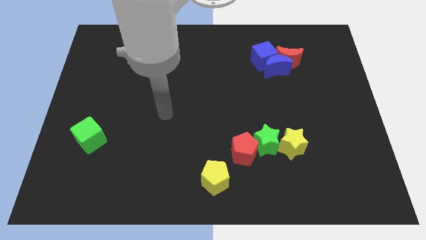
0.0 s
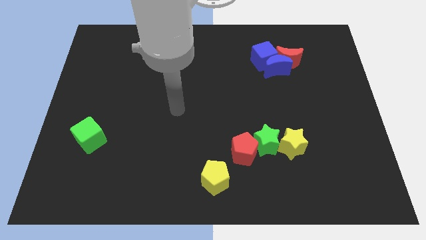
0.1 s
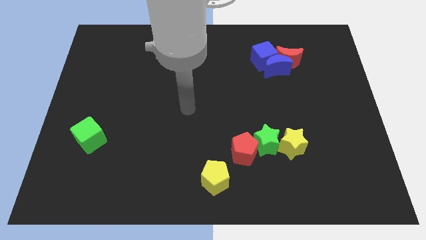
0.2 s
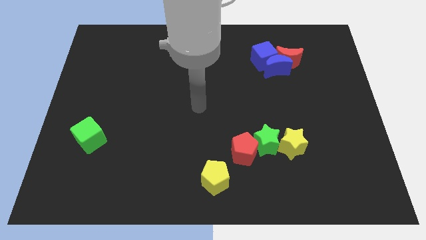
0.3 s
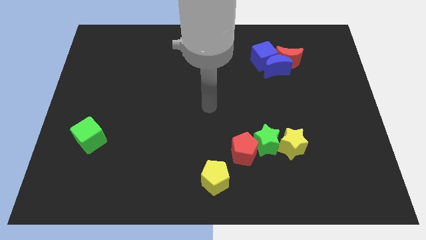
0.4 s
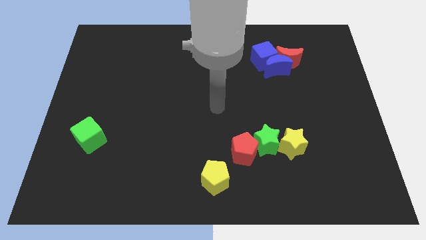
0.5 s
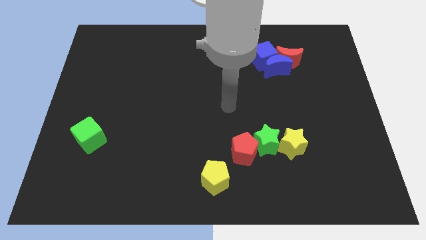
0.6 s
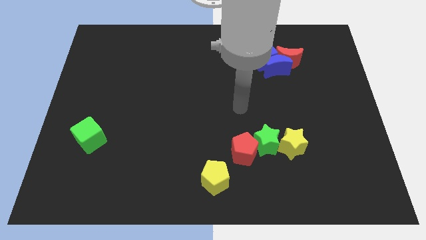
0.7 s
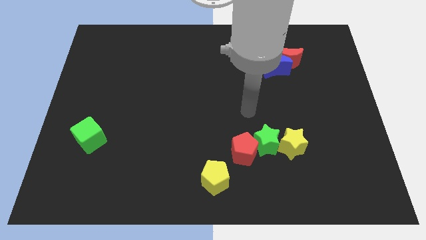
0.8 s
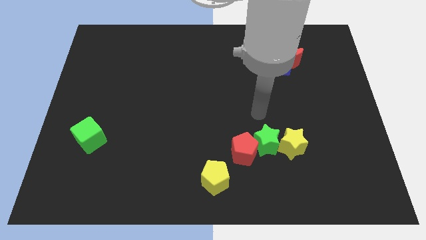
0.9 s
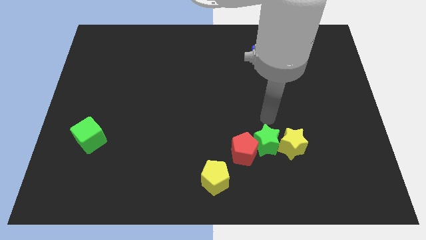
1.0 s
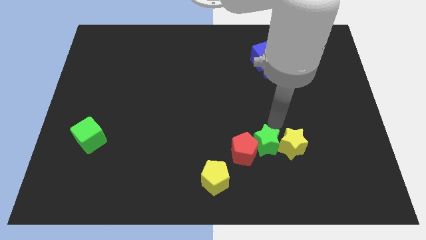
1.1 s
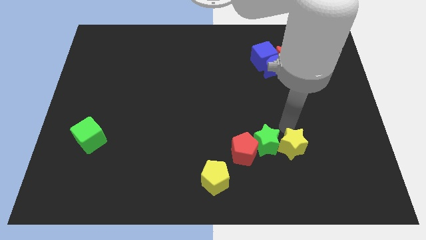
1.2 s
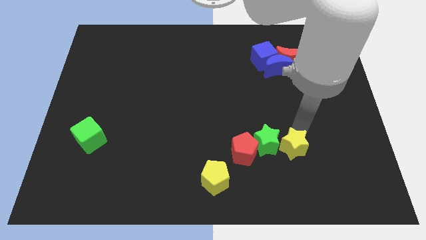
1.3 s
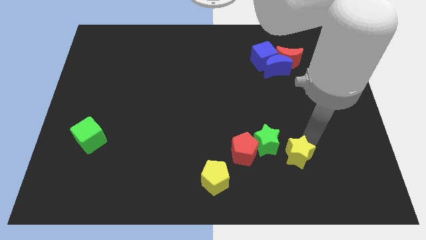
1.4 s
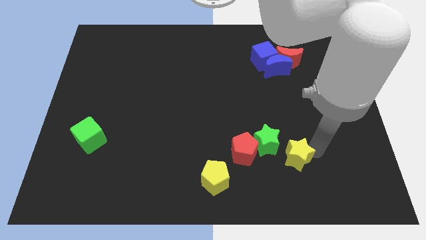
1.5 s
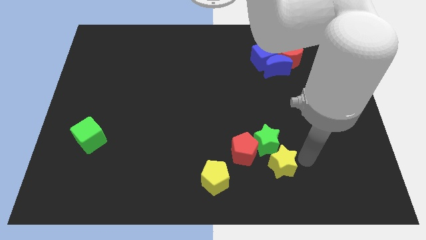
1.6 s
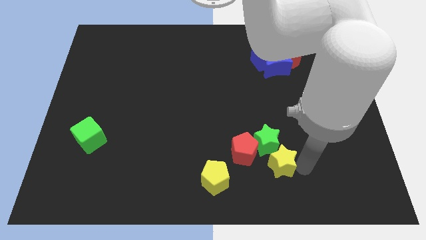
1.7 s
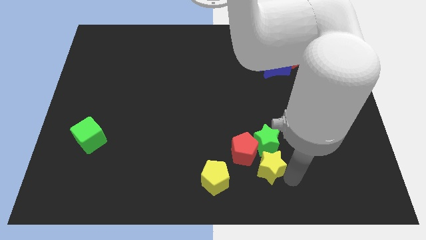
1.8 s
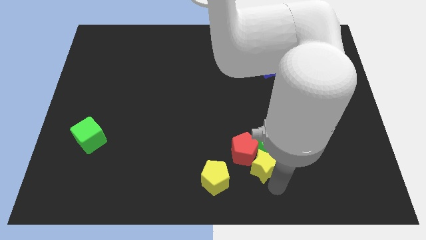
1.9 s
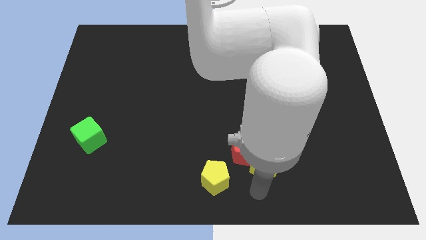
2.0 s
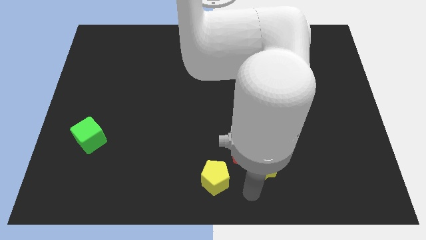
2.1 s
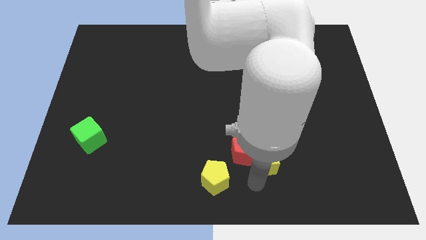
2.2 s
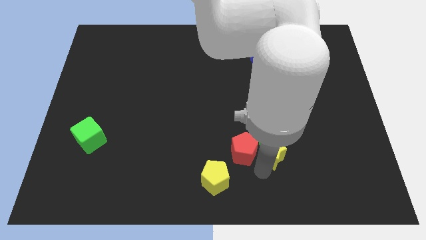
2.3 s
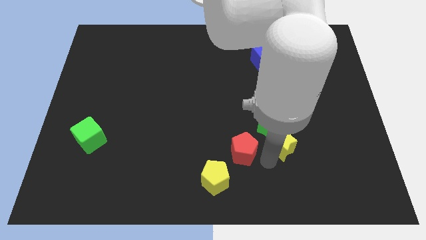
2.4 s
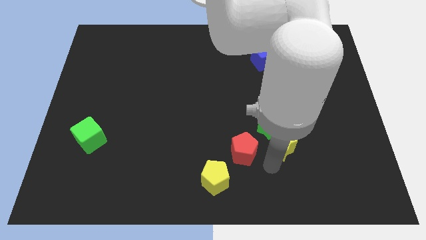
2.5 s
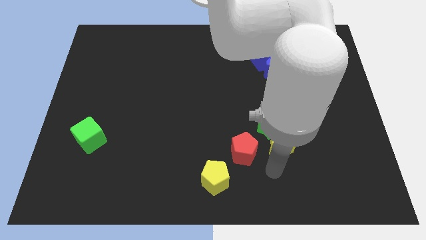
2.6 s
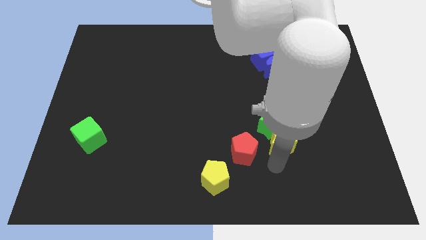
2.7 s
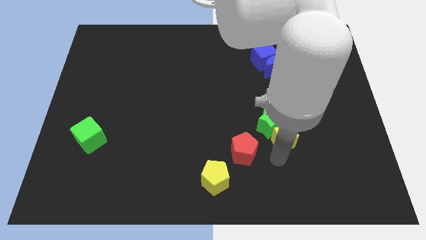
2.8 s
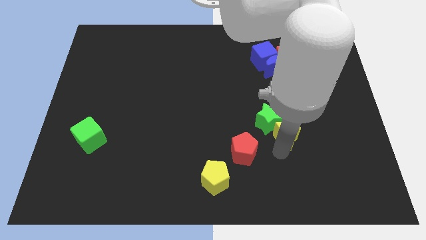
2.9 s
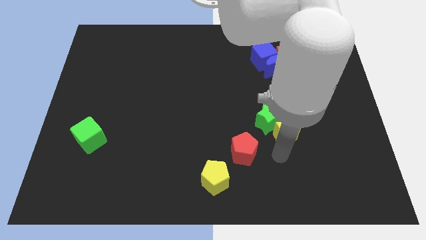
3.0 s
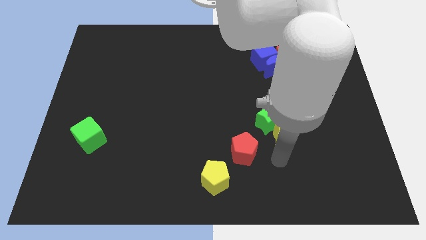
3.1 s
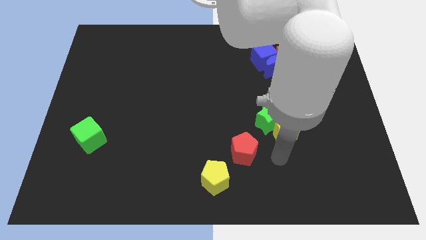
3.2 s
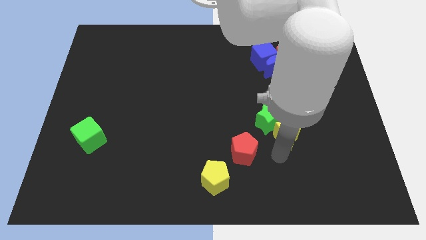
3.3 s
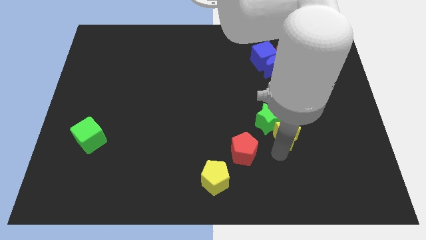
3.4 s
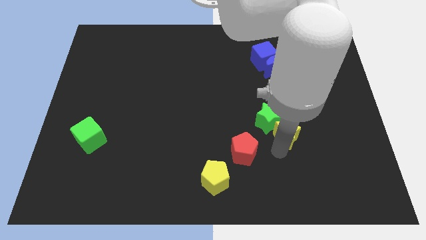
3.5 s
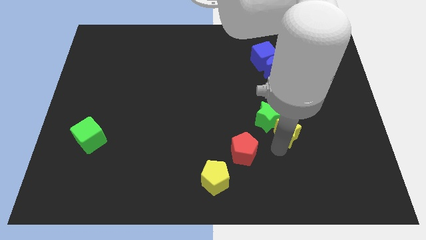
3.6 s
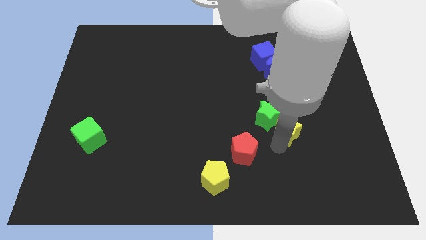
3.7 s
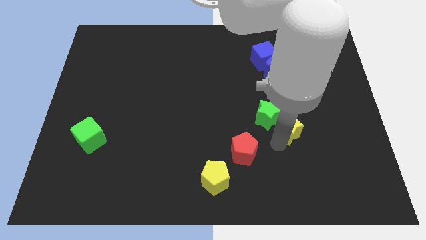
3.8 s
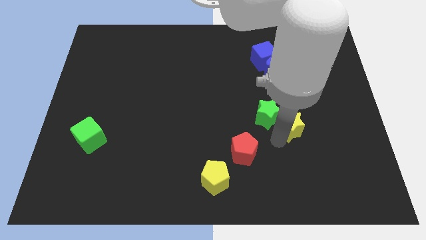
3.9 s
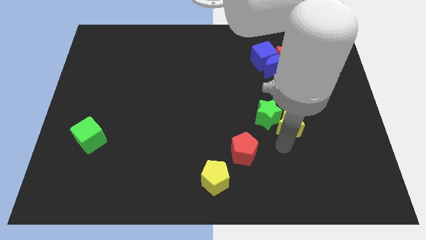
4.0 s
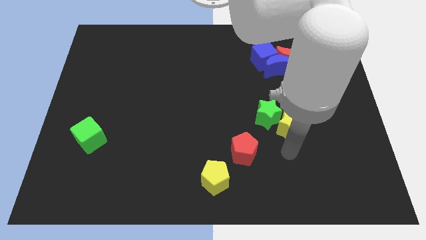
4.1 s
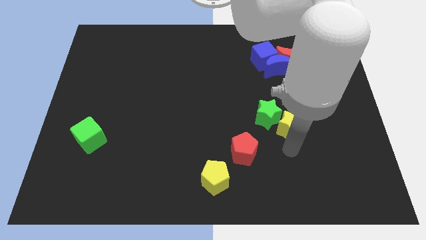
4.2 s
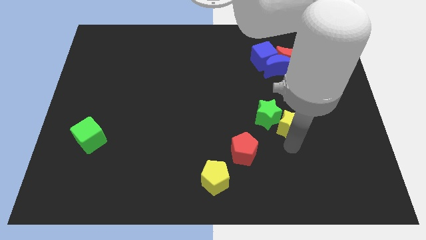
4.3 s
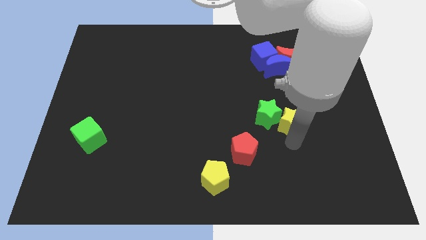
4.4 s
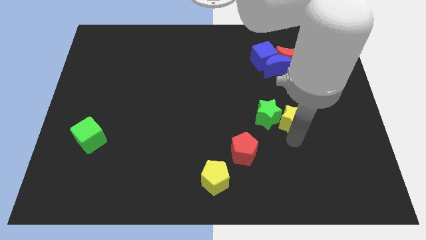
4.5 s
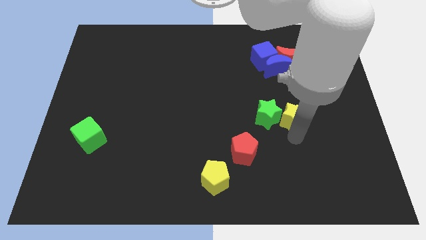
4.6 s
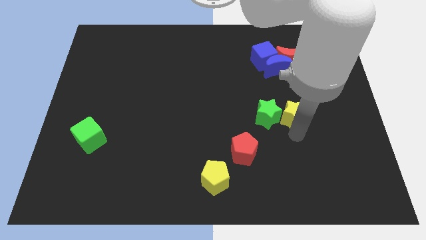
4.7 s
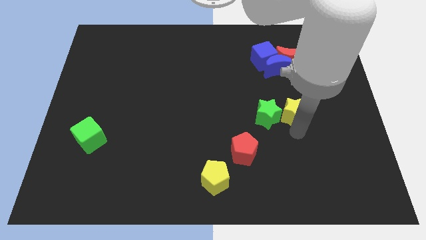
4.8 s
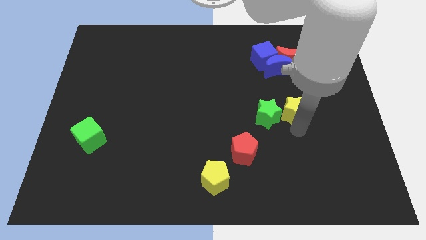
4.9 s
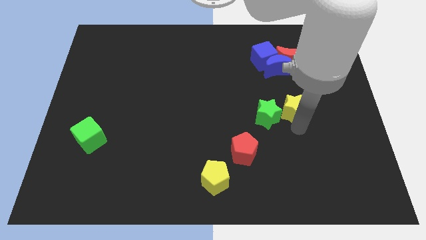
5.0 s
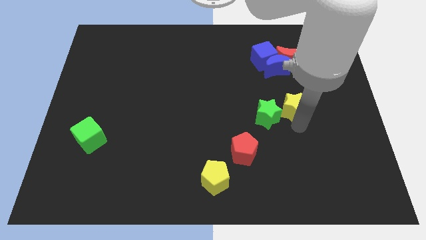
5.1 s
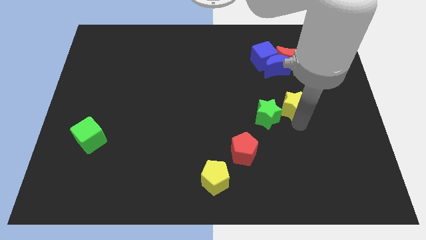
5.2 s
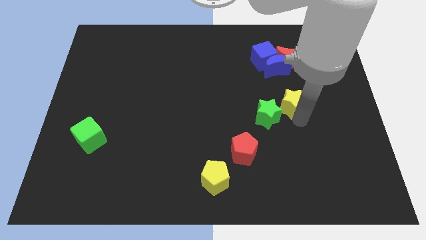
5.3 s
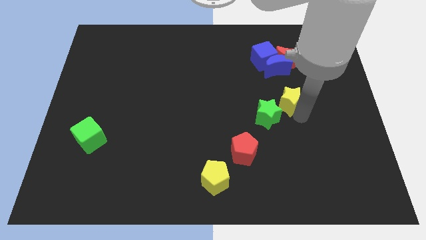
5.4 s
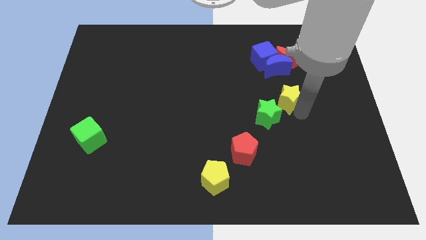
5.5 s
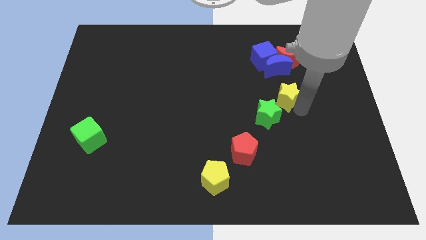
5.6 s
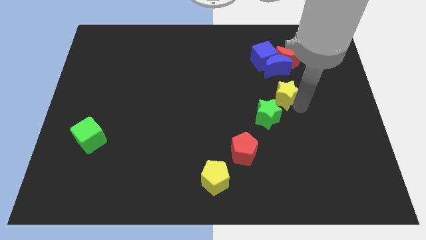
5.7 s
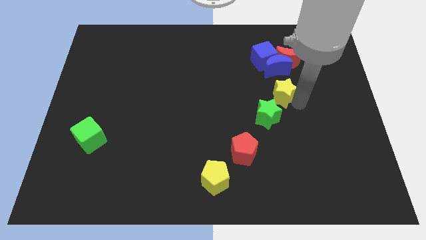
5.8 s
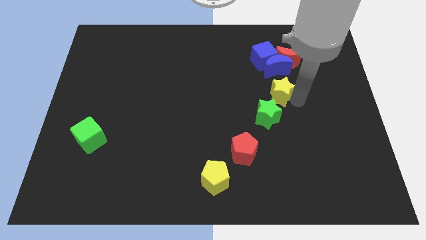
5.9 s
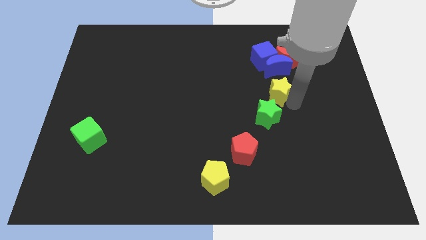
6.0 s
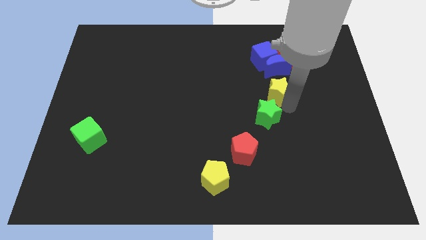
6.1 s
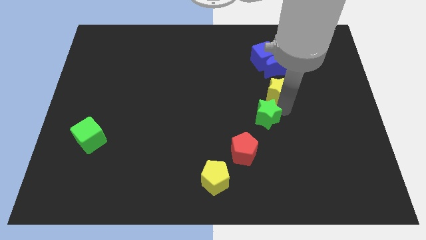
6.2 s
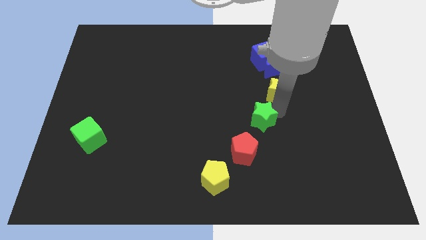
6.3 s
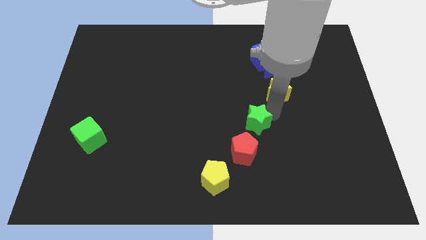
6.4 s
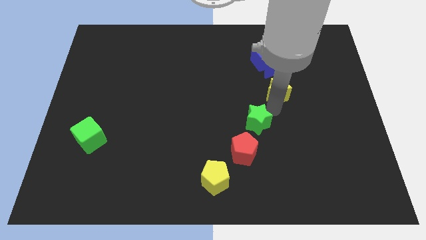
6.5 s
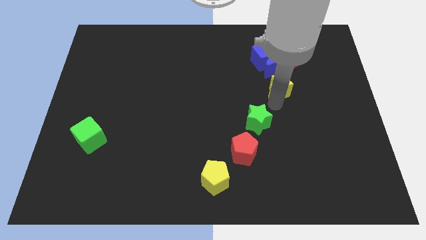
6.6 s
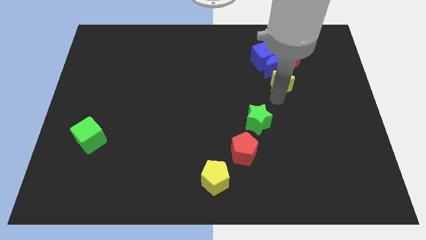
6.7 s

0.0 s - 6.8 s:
move the yellow star to the bottom right side of the blue cube
